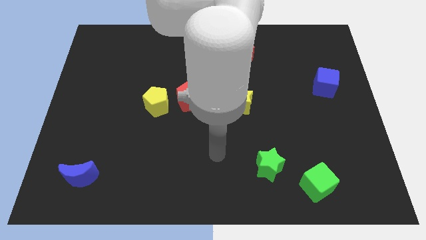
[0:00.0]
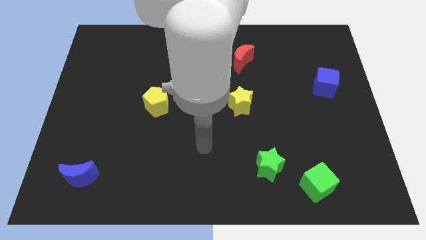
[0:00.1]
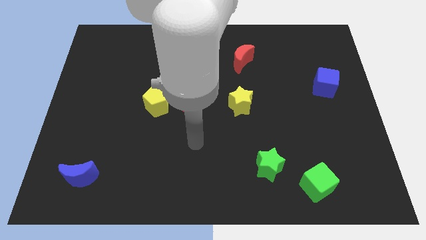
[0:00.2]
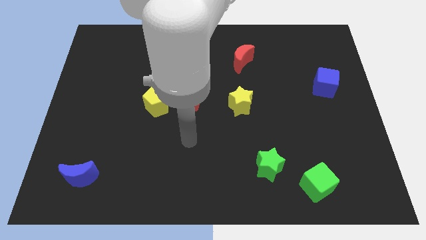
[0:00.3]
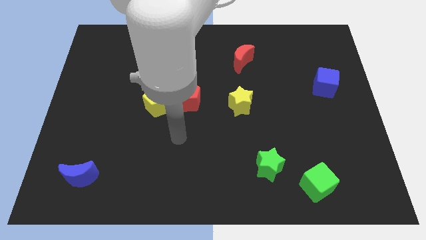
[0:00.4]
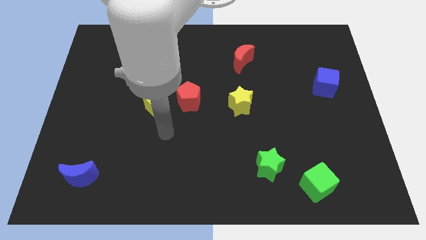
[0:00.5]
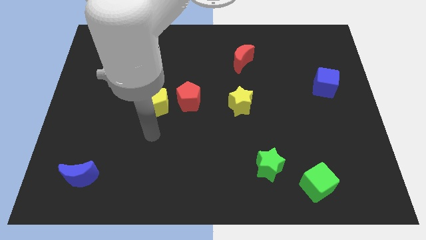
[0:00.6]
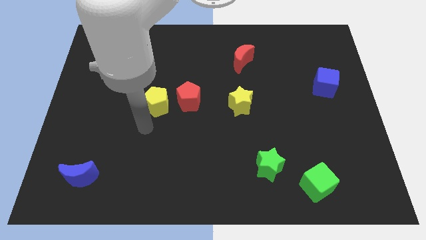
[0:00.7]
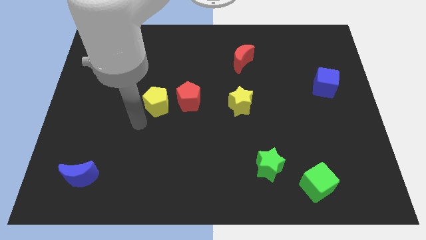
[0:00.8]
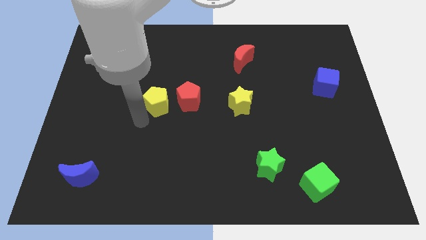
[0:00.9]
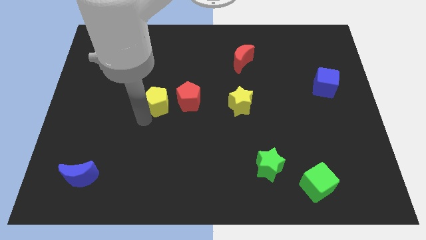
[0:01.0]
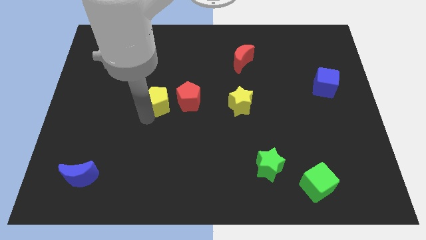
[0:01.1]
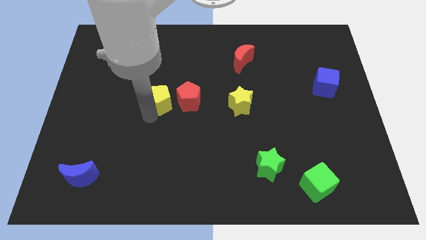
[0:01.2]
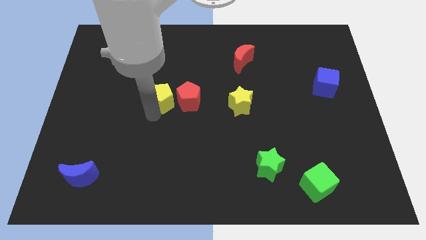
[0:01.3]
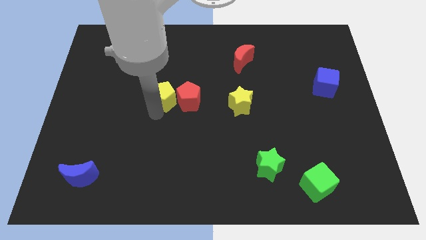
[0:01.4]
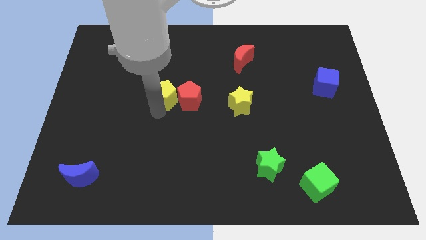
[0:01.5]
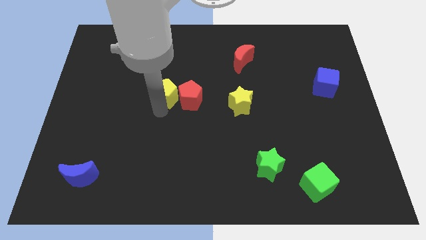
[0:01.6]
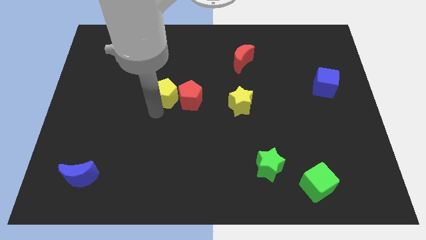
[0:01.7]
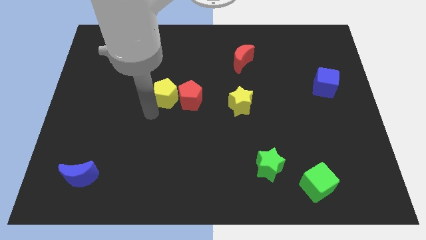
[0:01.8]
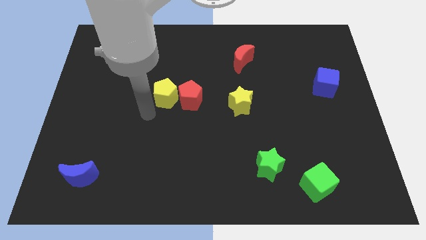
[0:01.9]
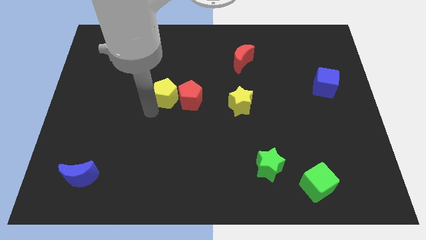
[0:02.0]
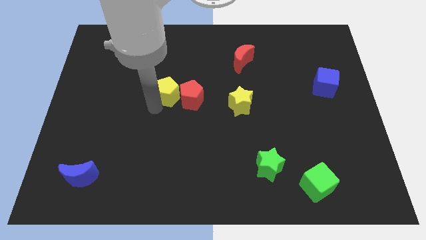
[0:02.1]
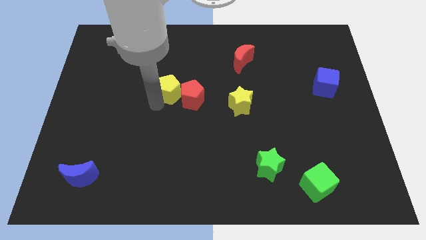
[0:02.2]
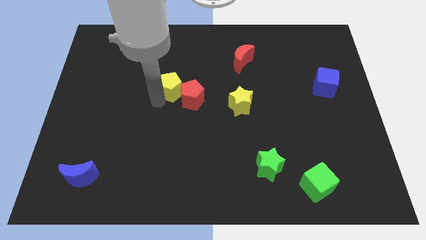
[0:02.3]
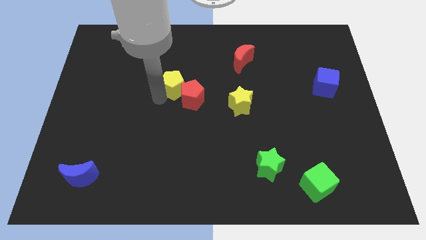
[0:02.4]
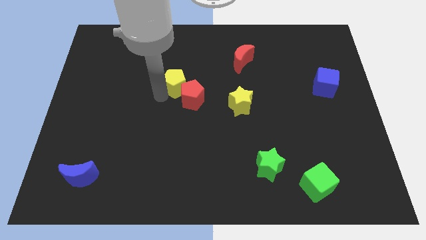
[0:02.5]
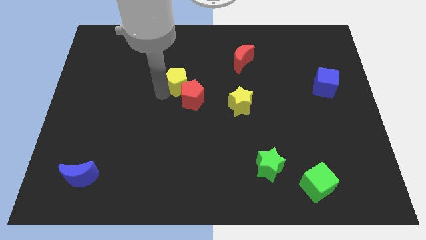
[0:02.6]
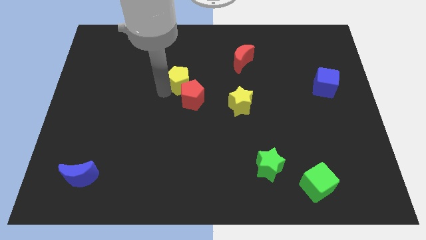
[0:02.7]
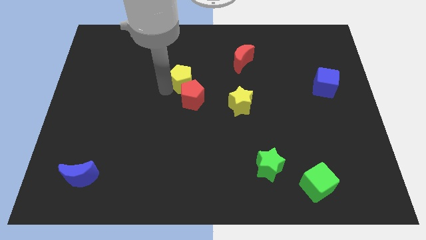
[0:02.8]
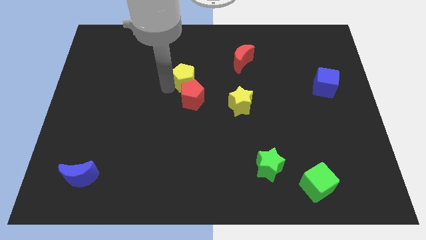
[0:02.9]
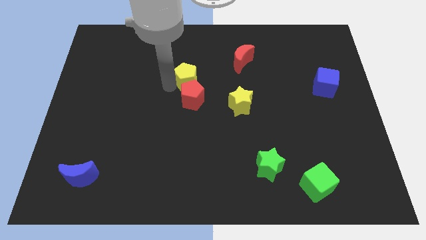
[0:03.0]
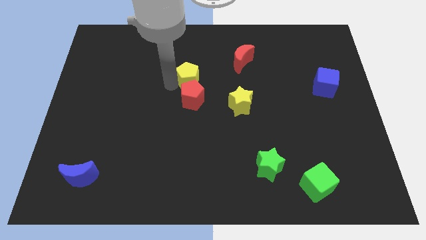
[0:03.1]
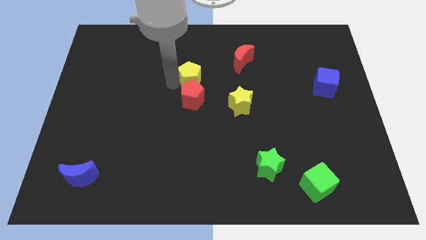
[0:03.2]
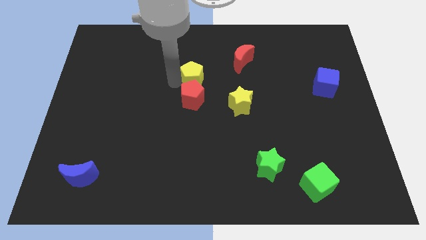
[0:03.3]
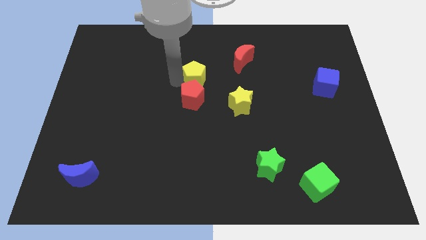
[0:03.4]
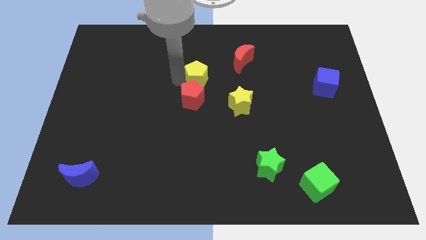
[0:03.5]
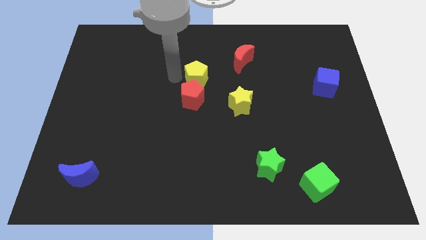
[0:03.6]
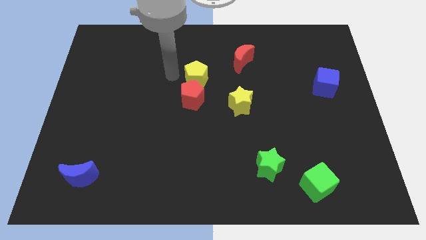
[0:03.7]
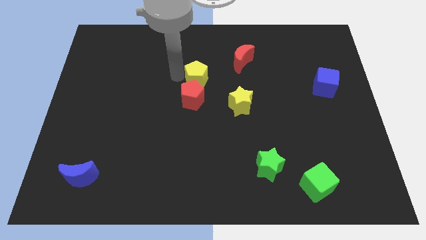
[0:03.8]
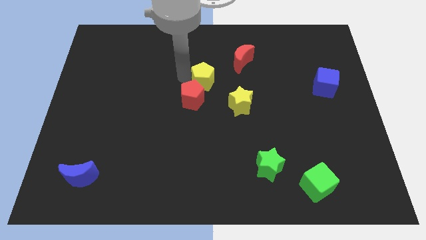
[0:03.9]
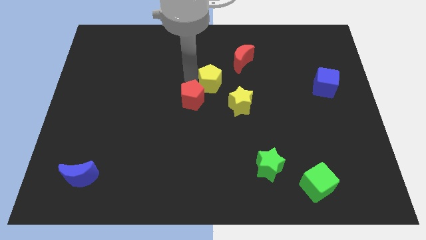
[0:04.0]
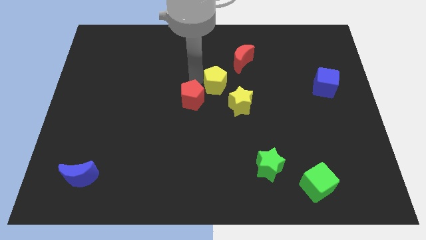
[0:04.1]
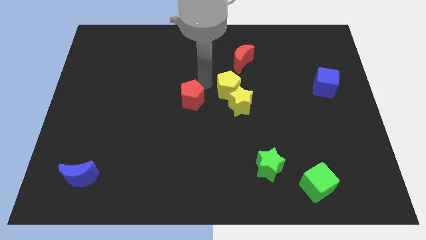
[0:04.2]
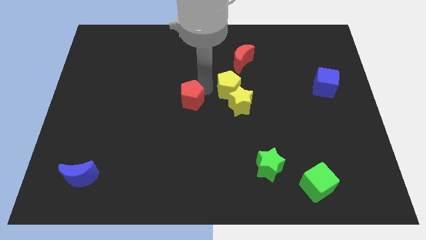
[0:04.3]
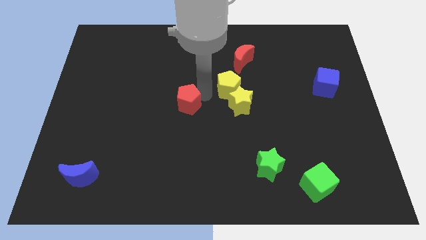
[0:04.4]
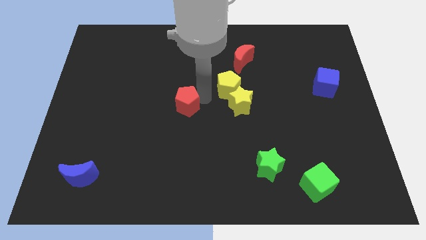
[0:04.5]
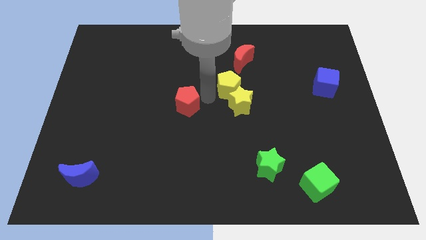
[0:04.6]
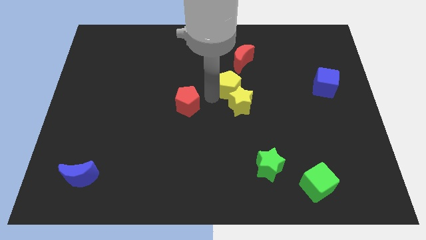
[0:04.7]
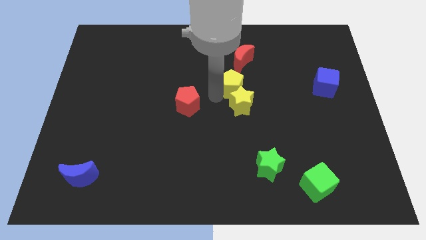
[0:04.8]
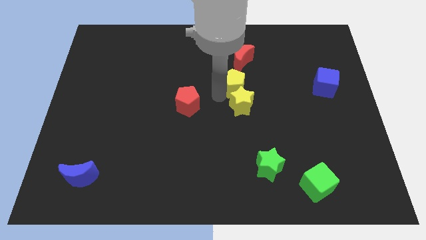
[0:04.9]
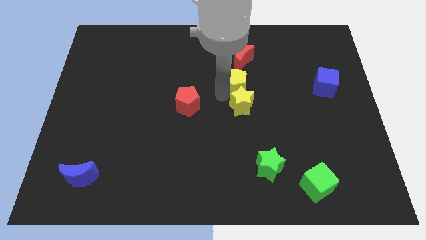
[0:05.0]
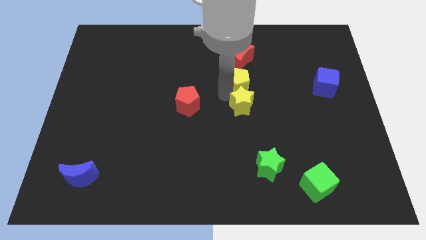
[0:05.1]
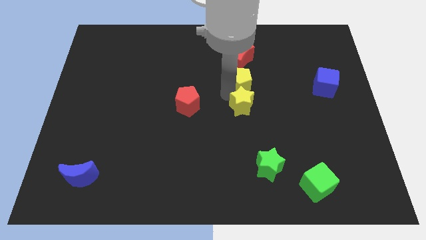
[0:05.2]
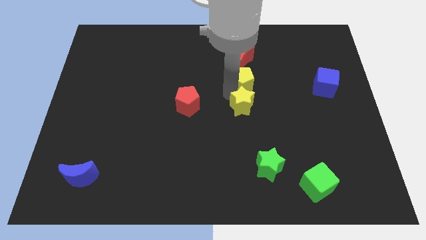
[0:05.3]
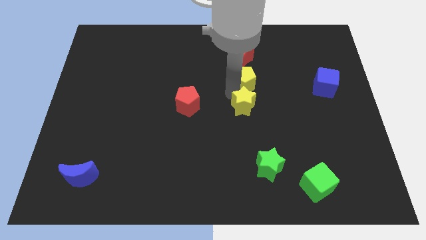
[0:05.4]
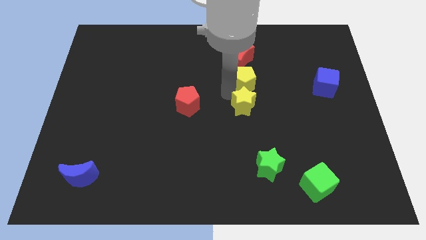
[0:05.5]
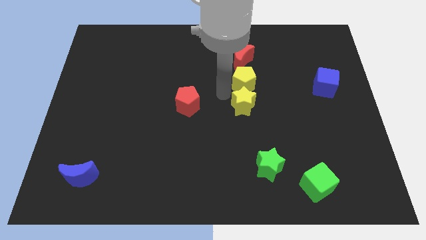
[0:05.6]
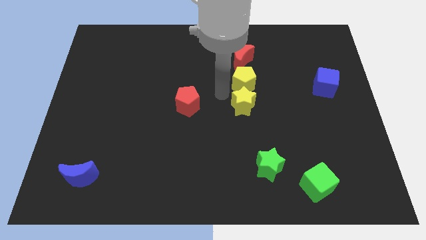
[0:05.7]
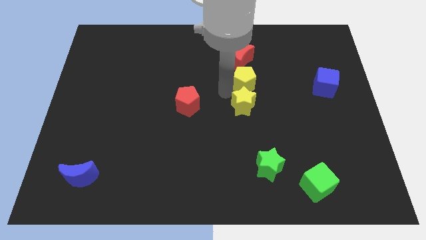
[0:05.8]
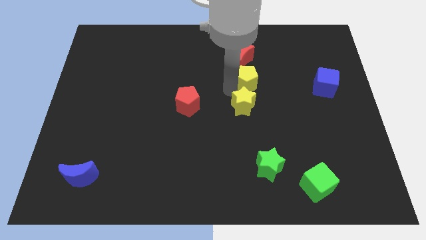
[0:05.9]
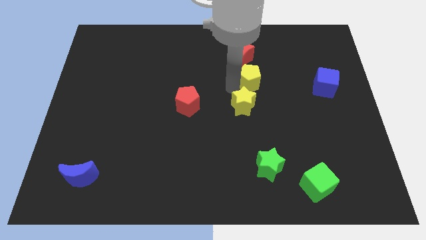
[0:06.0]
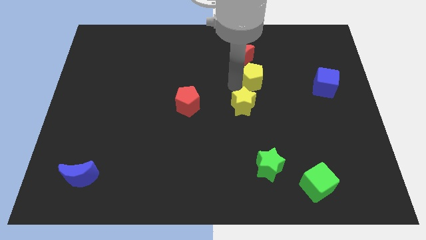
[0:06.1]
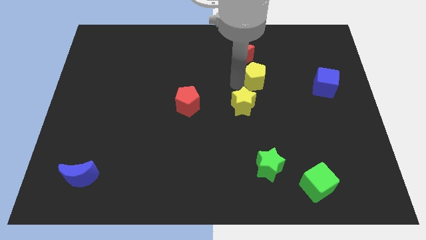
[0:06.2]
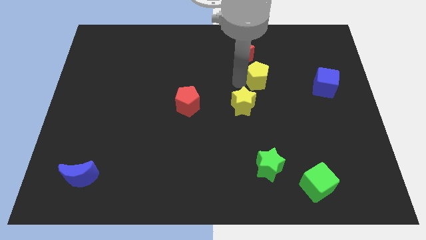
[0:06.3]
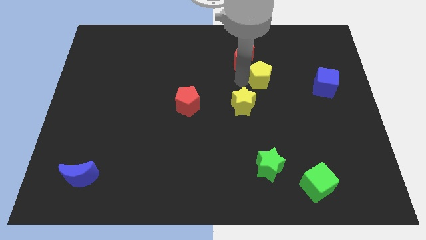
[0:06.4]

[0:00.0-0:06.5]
put the yellow pentagon just left of the blue cube

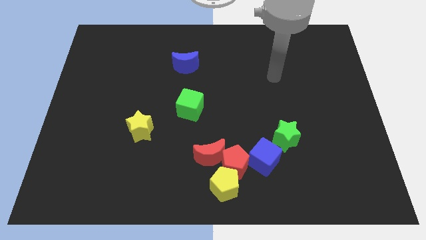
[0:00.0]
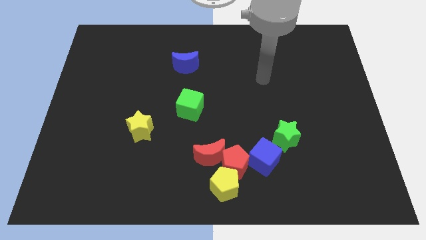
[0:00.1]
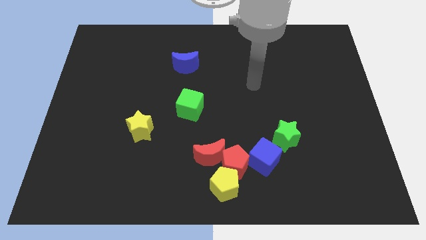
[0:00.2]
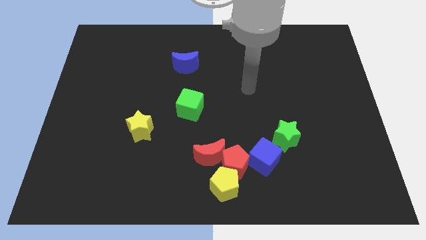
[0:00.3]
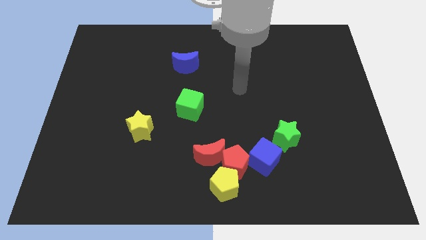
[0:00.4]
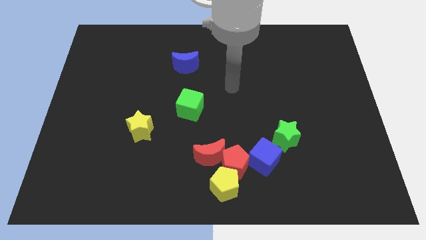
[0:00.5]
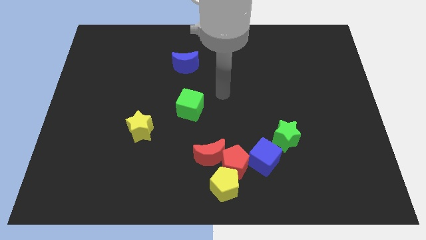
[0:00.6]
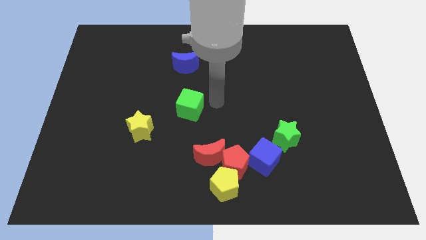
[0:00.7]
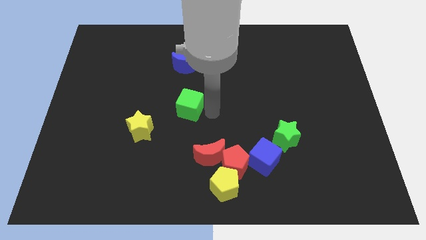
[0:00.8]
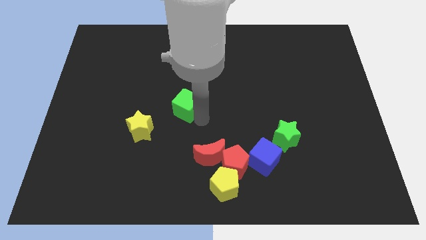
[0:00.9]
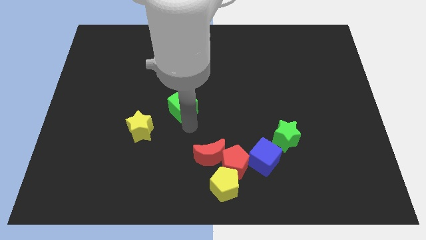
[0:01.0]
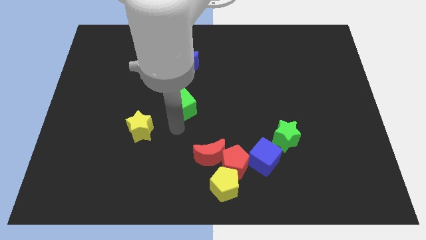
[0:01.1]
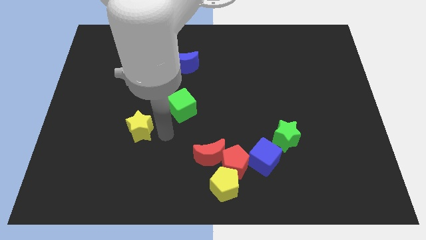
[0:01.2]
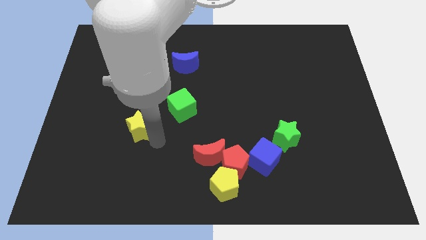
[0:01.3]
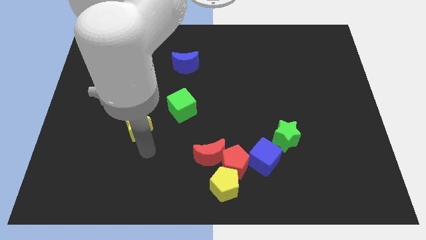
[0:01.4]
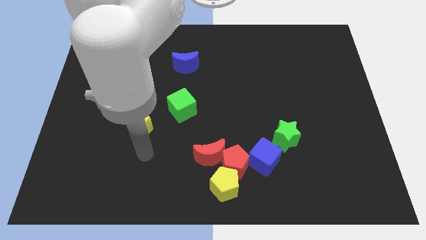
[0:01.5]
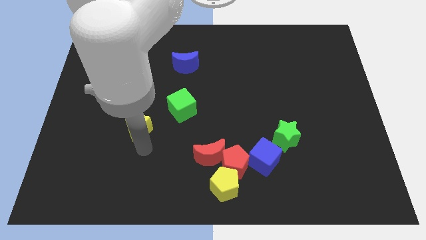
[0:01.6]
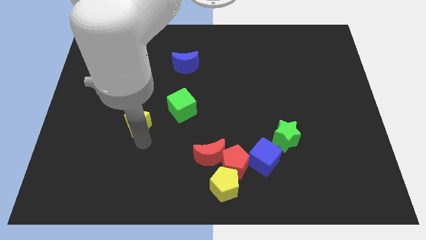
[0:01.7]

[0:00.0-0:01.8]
slide the yellow star to the left side of the green cube
